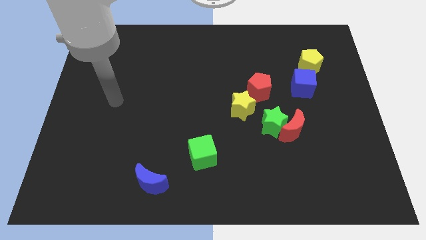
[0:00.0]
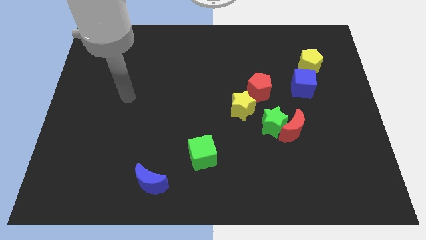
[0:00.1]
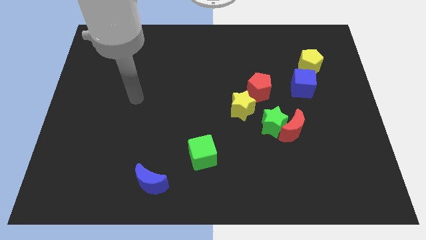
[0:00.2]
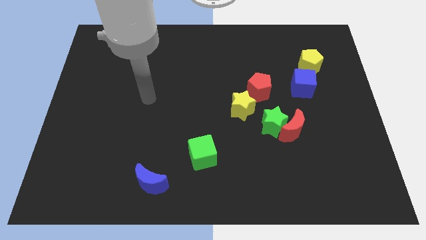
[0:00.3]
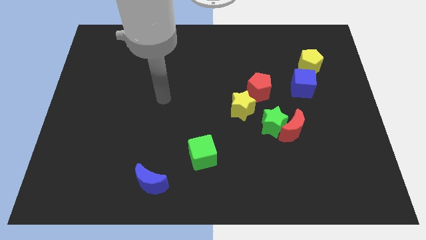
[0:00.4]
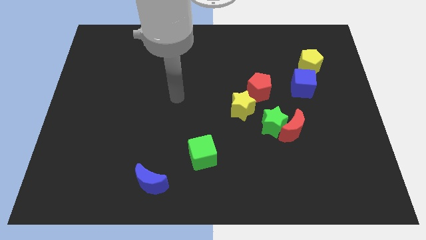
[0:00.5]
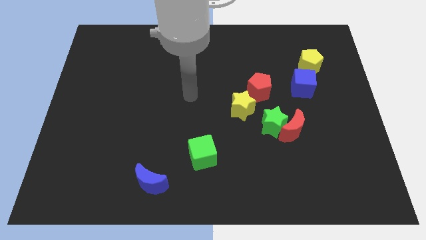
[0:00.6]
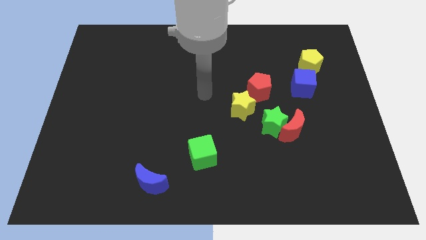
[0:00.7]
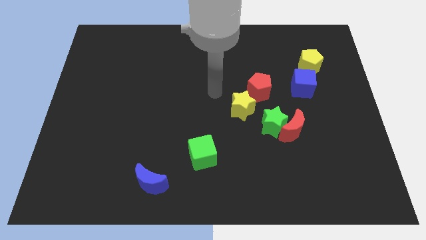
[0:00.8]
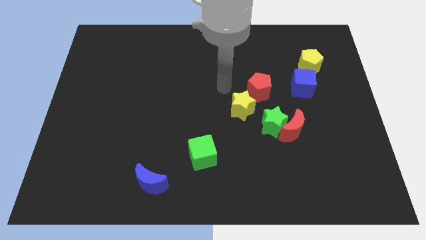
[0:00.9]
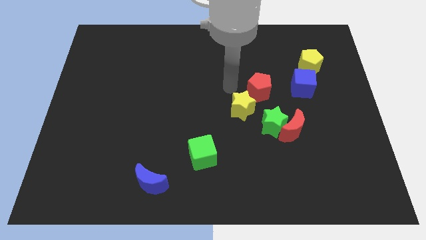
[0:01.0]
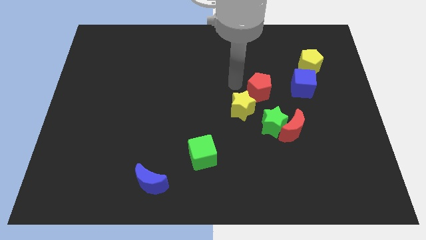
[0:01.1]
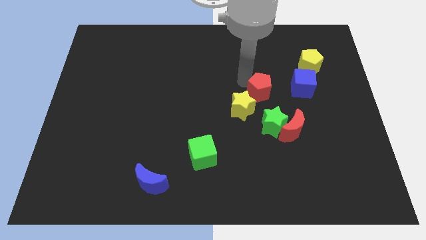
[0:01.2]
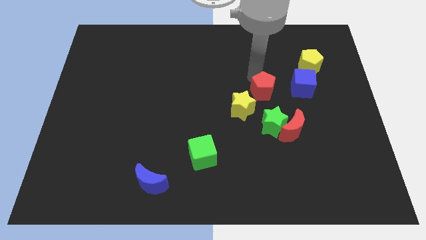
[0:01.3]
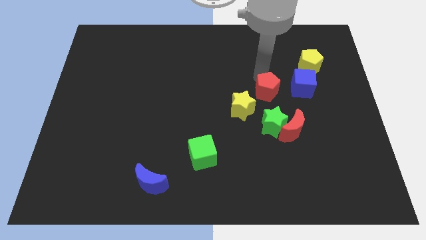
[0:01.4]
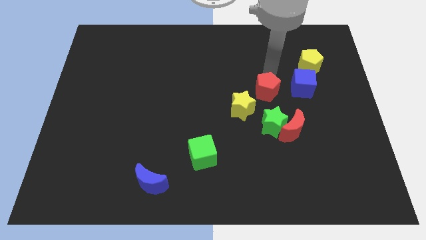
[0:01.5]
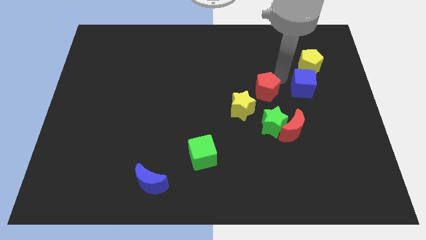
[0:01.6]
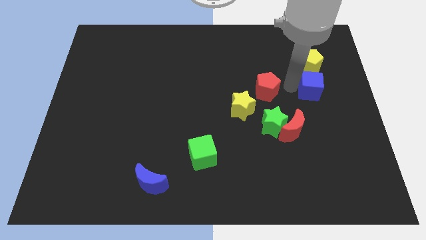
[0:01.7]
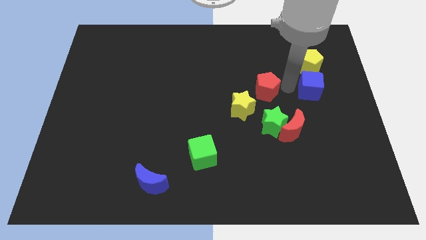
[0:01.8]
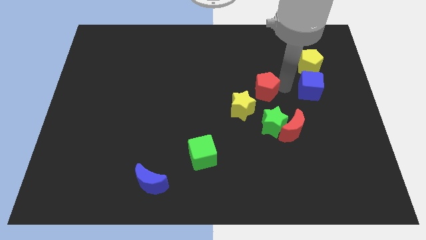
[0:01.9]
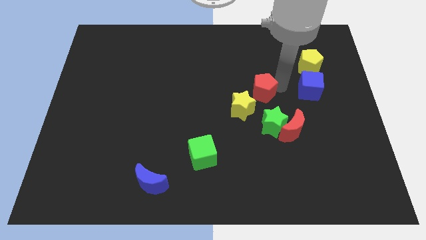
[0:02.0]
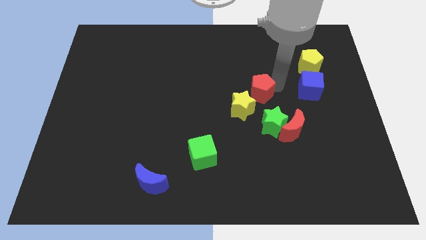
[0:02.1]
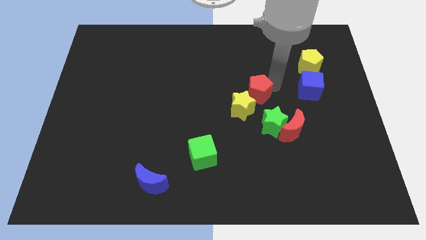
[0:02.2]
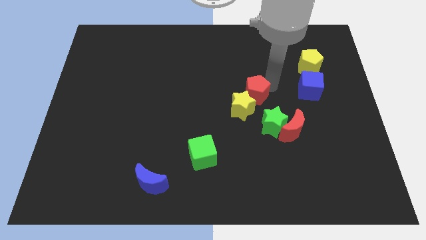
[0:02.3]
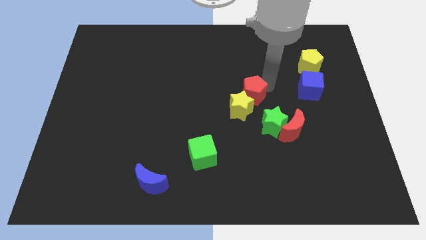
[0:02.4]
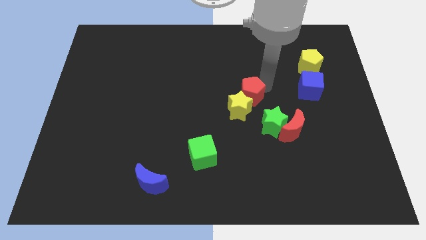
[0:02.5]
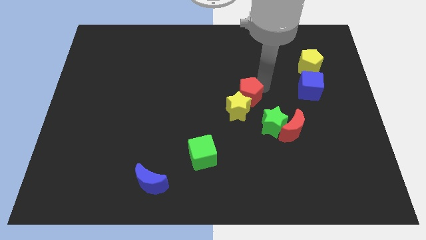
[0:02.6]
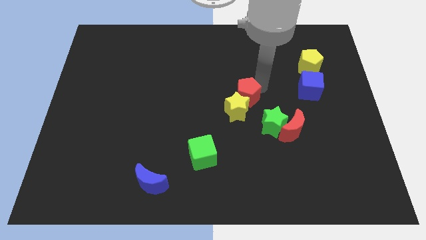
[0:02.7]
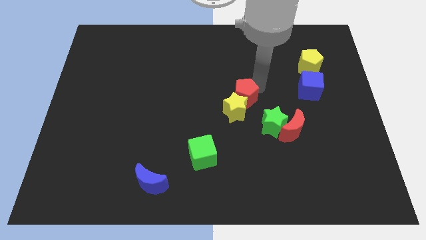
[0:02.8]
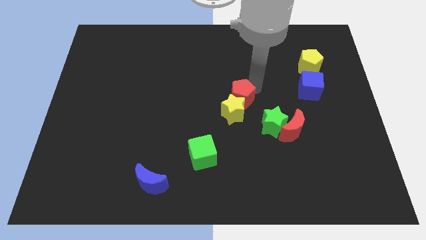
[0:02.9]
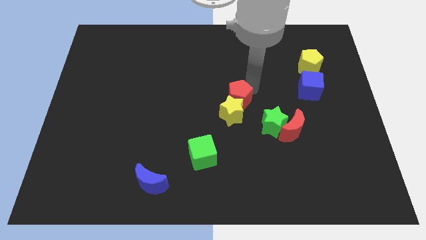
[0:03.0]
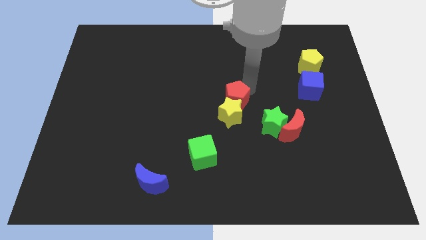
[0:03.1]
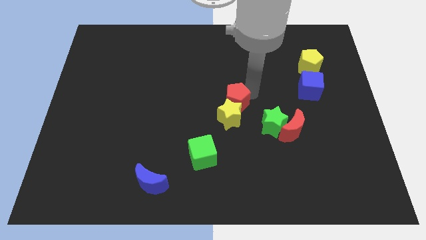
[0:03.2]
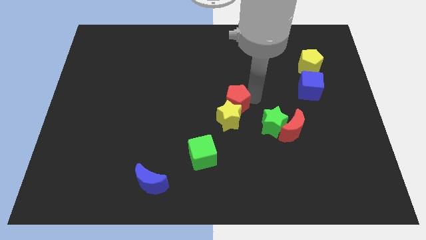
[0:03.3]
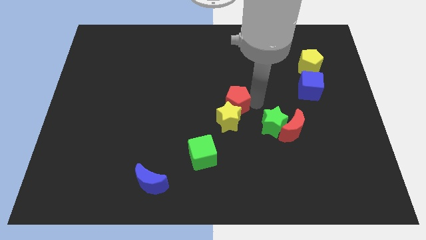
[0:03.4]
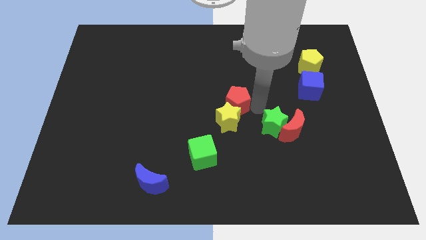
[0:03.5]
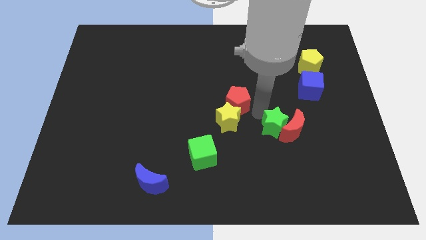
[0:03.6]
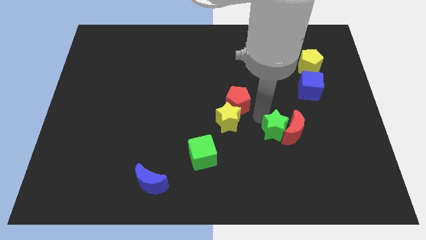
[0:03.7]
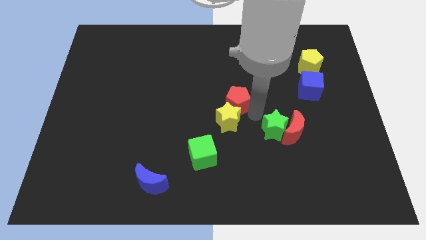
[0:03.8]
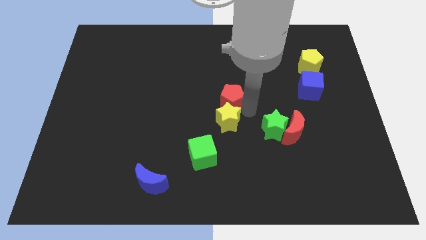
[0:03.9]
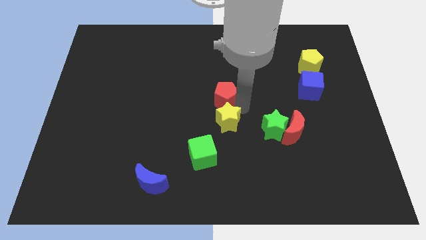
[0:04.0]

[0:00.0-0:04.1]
move the red pentagon left slightly

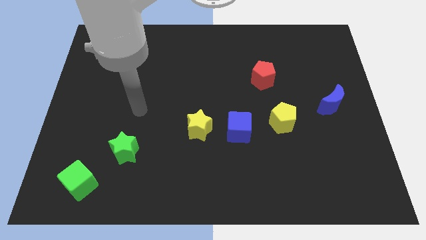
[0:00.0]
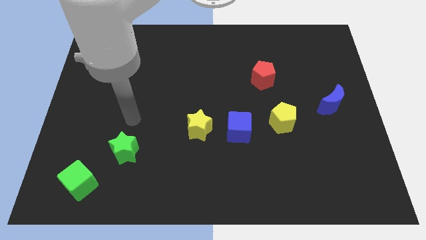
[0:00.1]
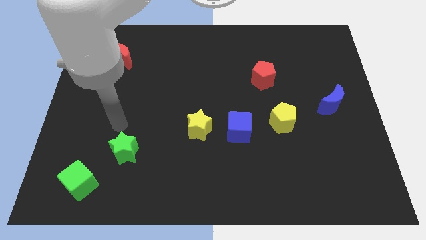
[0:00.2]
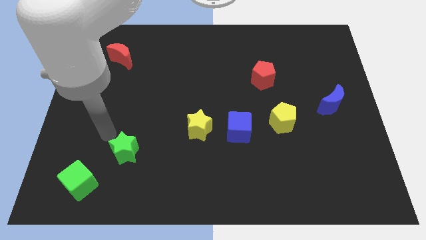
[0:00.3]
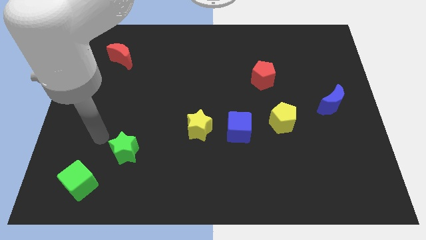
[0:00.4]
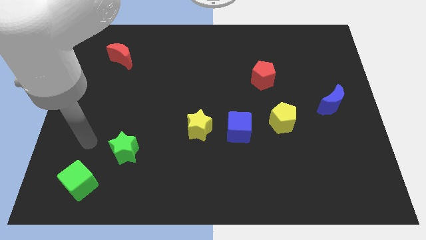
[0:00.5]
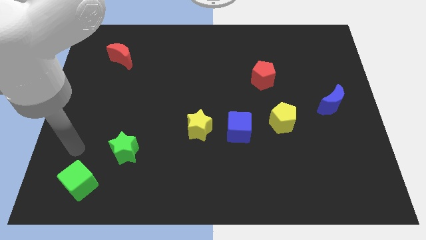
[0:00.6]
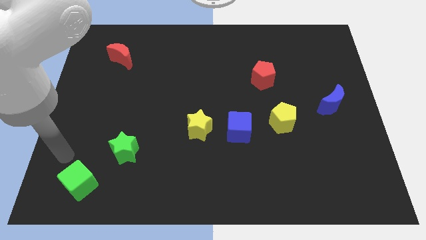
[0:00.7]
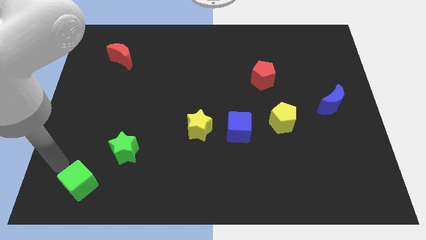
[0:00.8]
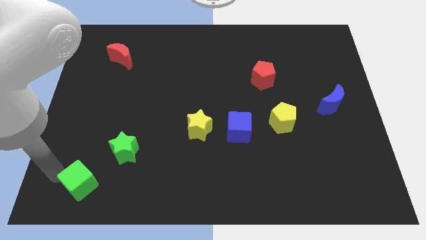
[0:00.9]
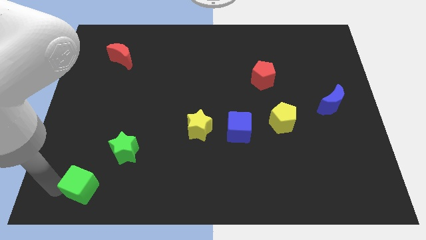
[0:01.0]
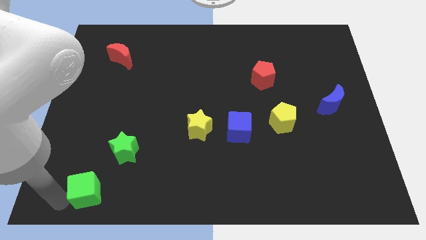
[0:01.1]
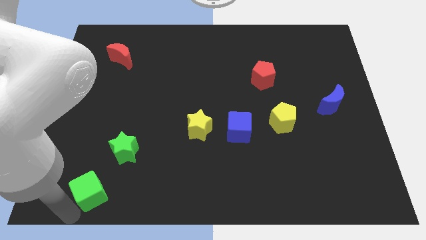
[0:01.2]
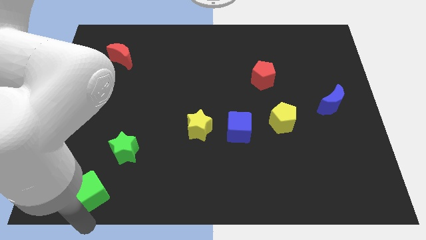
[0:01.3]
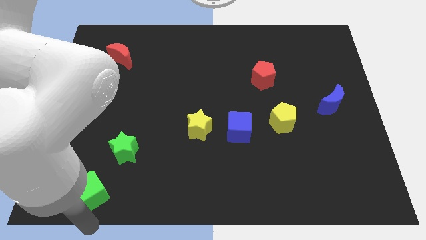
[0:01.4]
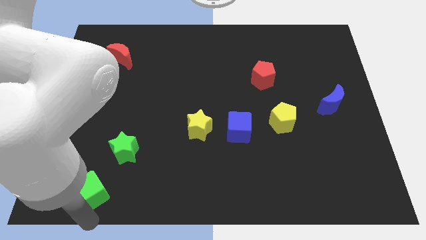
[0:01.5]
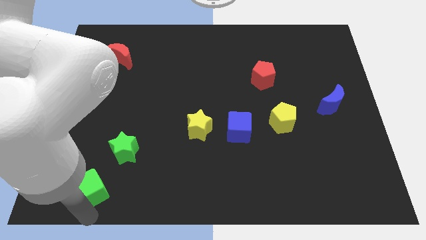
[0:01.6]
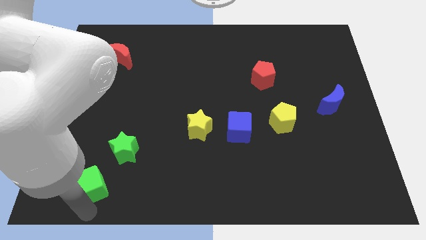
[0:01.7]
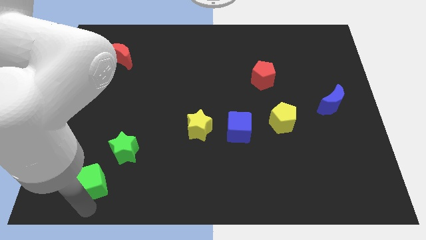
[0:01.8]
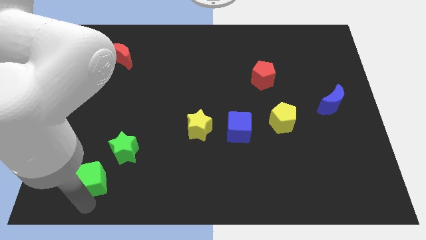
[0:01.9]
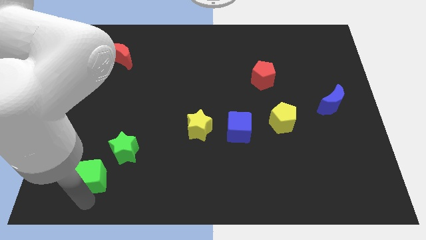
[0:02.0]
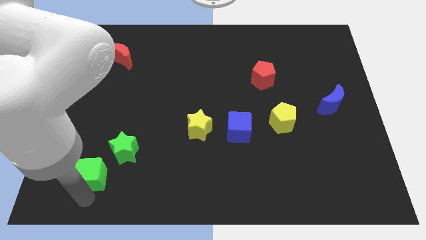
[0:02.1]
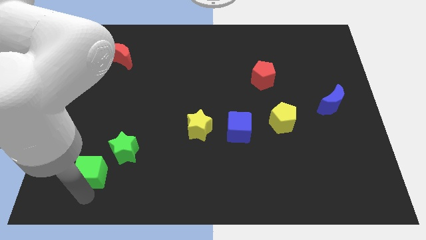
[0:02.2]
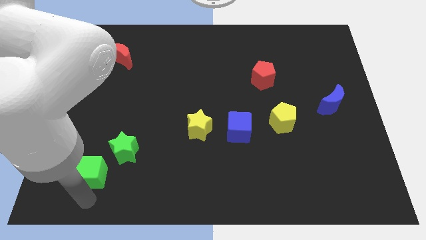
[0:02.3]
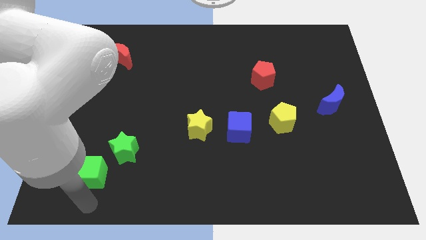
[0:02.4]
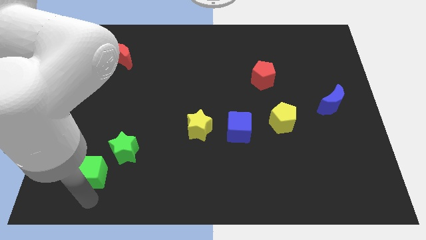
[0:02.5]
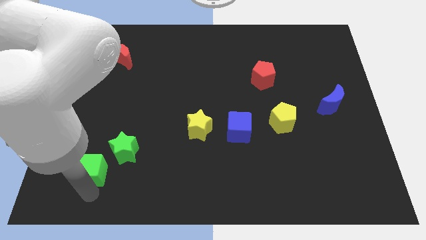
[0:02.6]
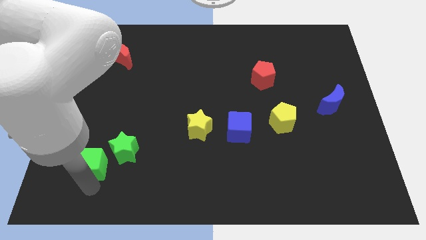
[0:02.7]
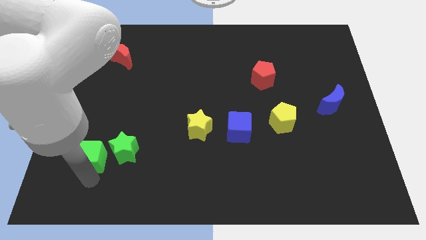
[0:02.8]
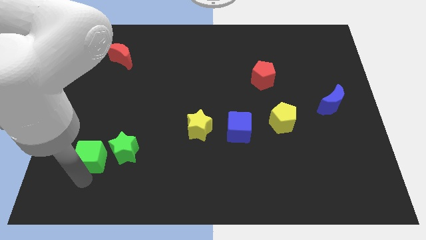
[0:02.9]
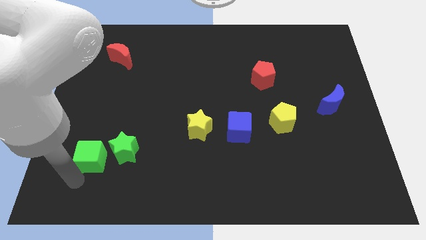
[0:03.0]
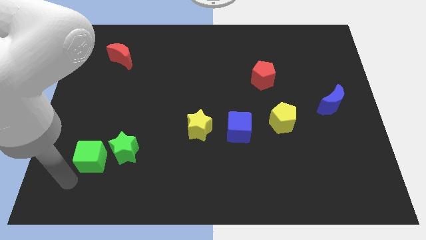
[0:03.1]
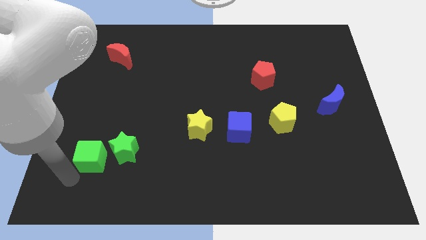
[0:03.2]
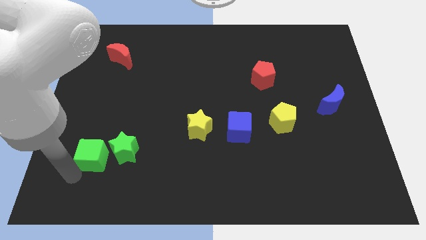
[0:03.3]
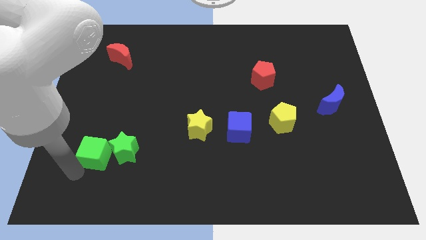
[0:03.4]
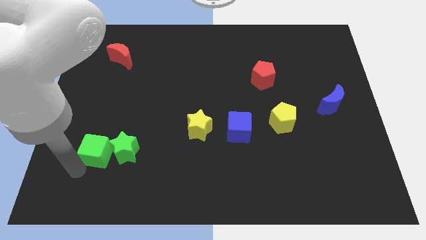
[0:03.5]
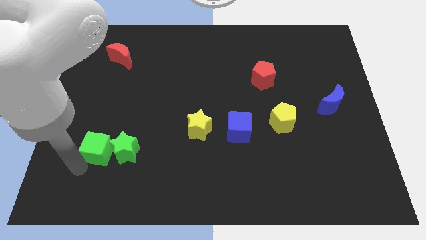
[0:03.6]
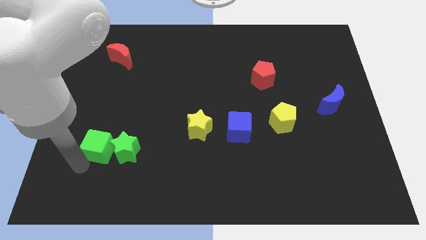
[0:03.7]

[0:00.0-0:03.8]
slide the green cube somewhat upwards and right

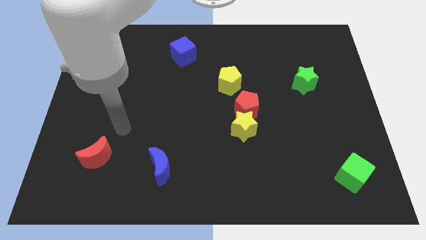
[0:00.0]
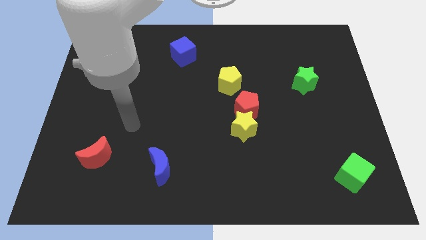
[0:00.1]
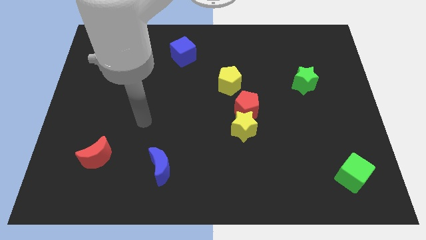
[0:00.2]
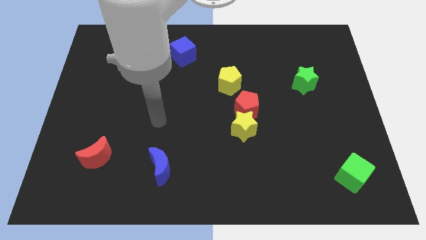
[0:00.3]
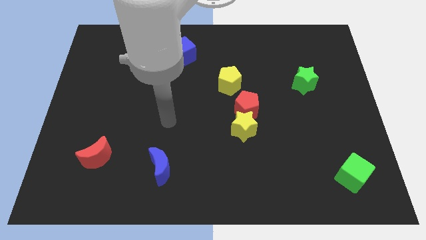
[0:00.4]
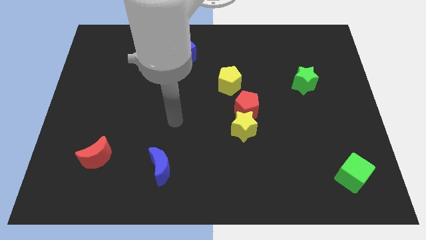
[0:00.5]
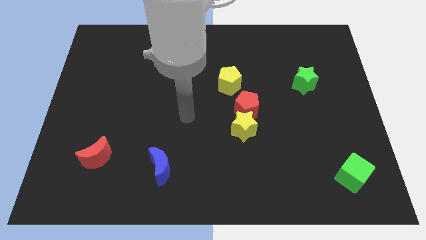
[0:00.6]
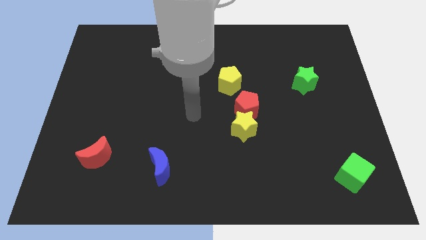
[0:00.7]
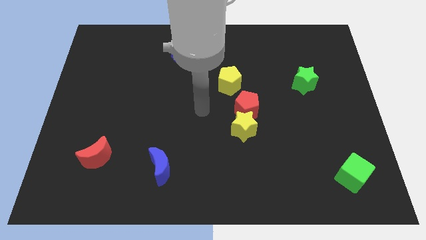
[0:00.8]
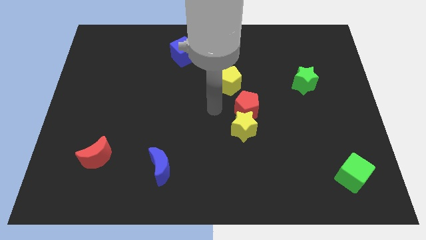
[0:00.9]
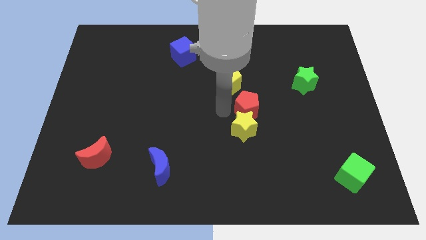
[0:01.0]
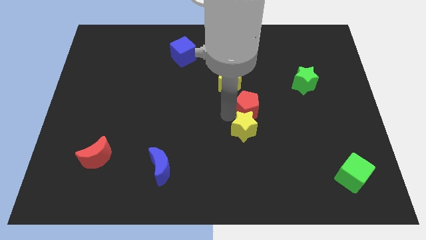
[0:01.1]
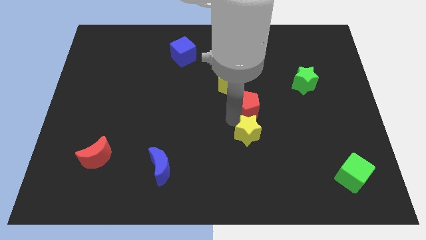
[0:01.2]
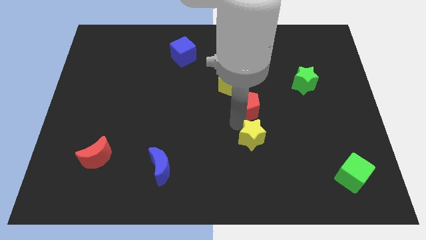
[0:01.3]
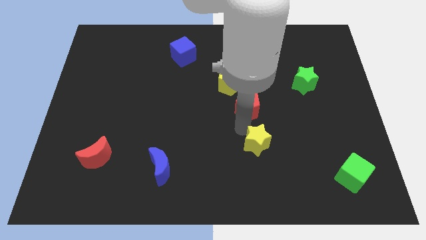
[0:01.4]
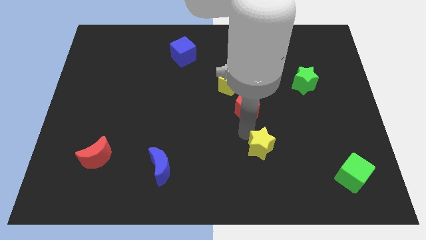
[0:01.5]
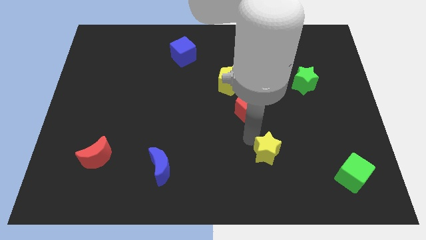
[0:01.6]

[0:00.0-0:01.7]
slightly push the yellow star diagonally downwards and to the right
